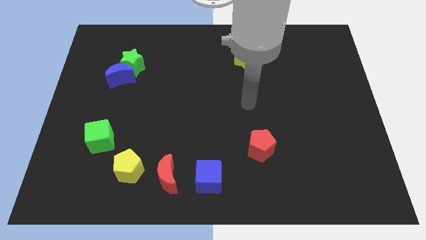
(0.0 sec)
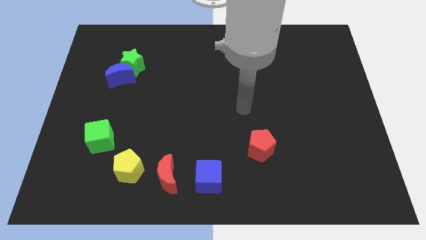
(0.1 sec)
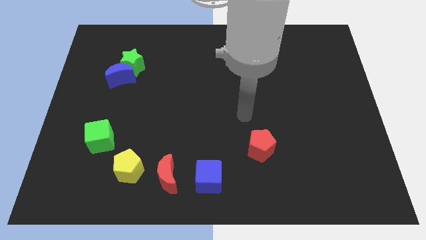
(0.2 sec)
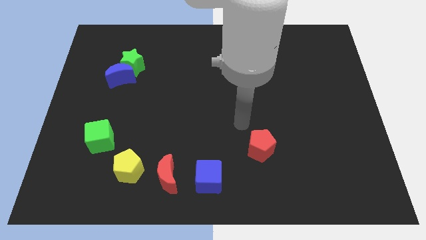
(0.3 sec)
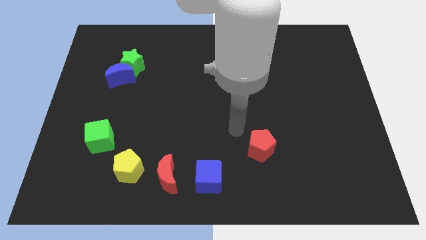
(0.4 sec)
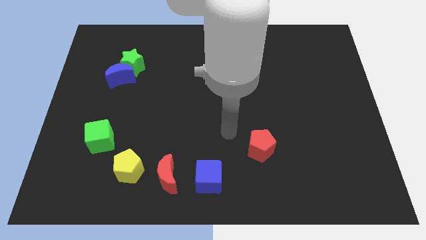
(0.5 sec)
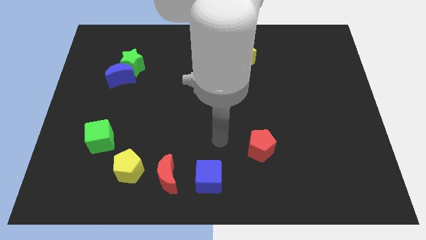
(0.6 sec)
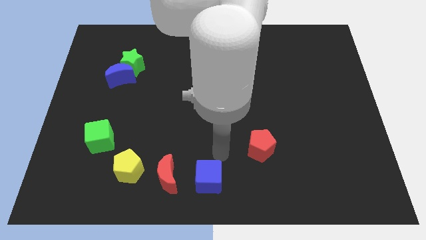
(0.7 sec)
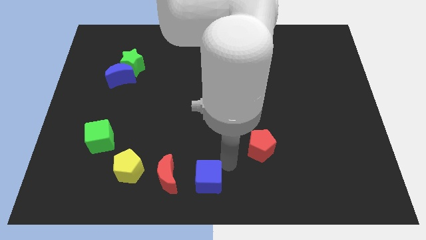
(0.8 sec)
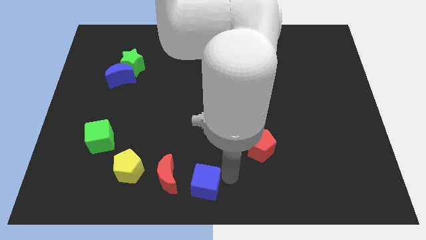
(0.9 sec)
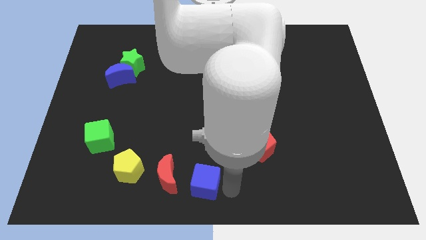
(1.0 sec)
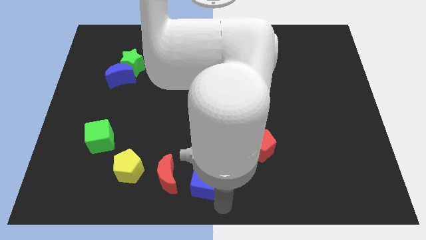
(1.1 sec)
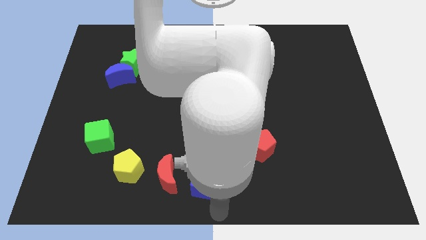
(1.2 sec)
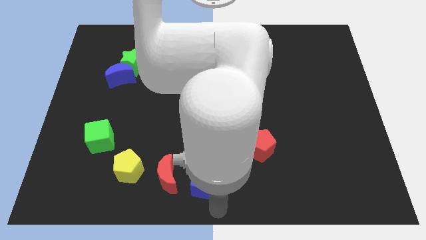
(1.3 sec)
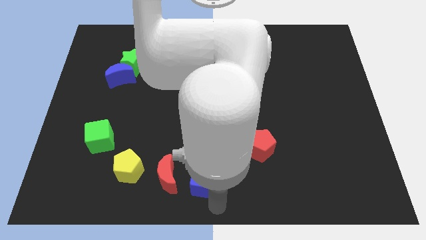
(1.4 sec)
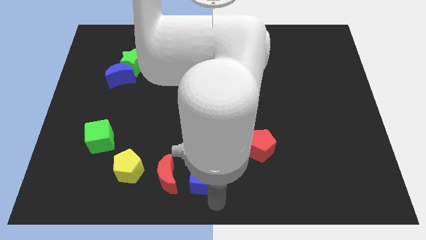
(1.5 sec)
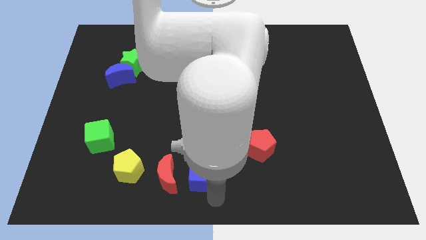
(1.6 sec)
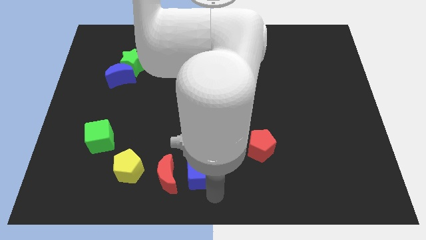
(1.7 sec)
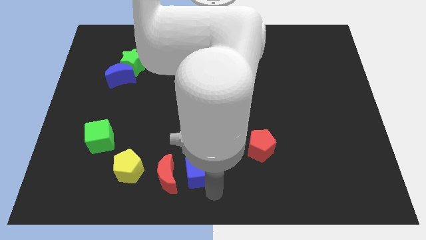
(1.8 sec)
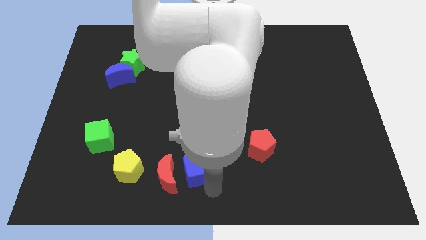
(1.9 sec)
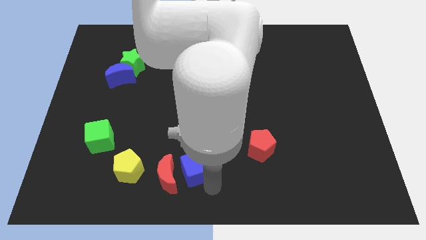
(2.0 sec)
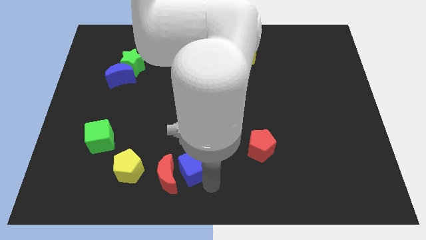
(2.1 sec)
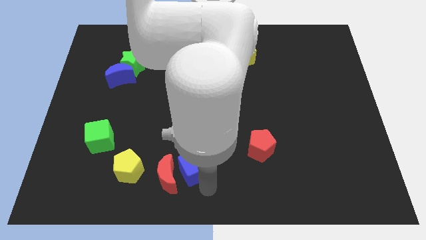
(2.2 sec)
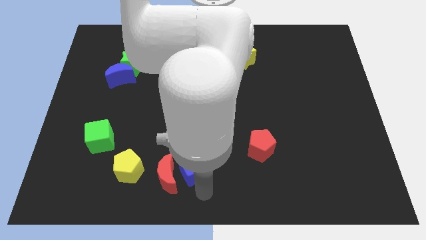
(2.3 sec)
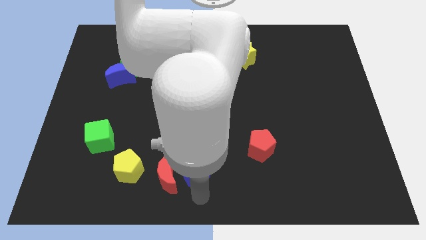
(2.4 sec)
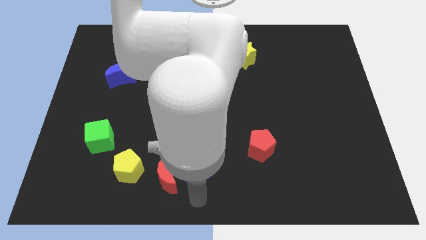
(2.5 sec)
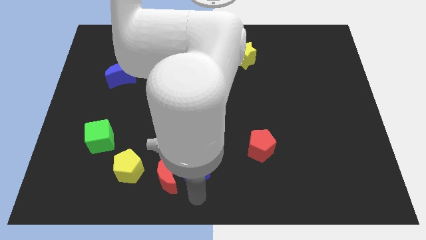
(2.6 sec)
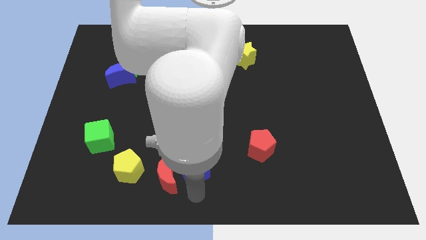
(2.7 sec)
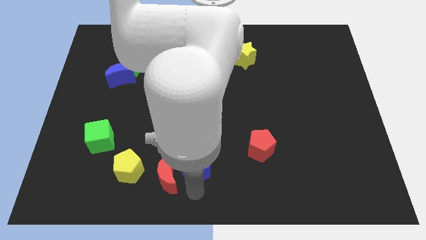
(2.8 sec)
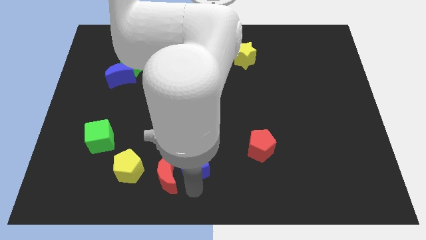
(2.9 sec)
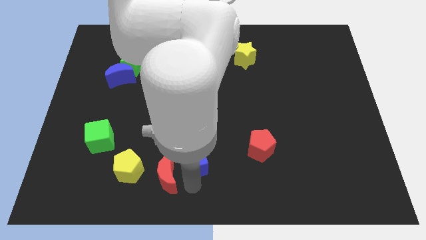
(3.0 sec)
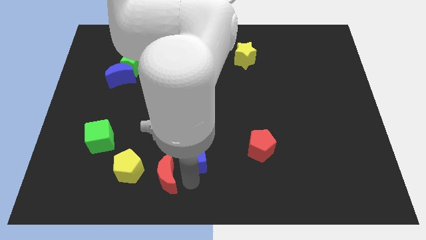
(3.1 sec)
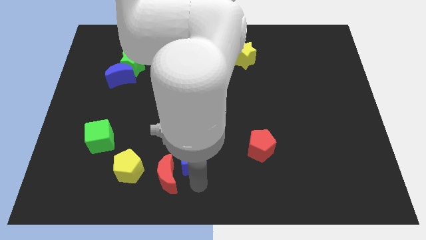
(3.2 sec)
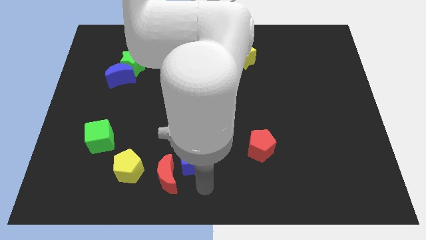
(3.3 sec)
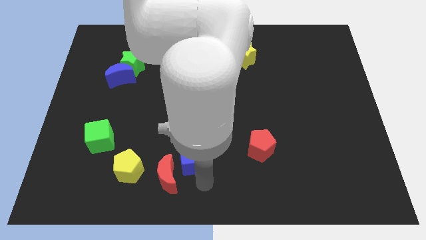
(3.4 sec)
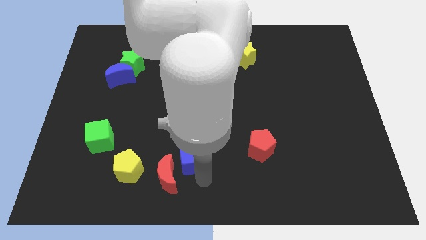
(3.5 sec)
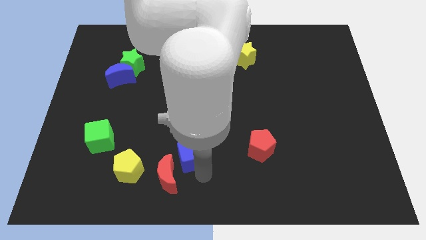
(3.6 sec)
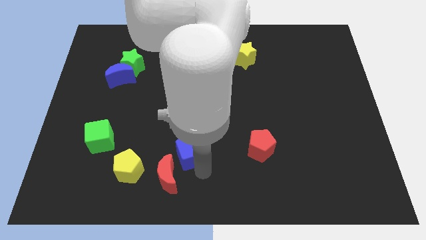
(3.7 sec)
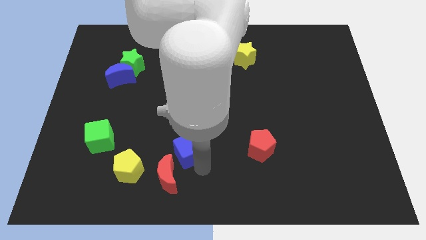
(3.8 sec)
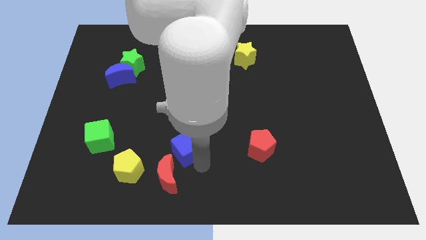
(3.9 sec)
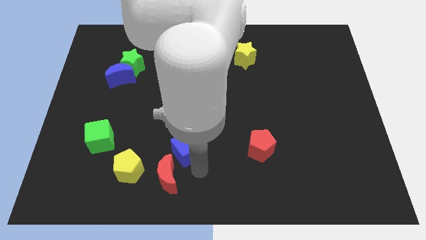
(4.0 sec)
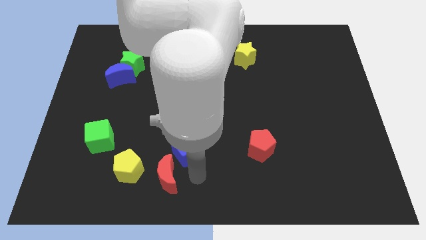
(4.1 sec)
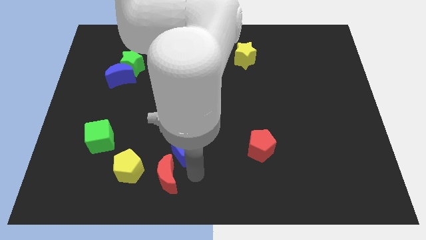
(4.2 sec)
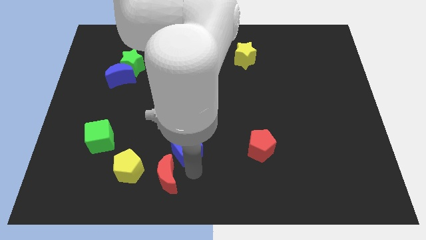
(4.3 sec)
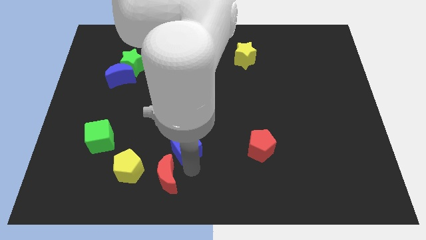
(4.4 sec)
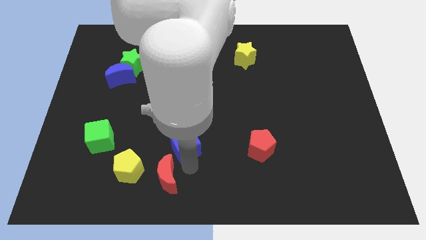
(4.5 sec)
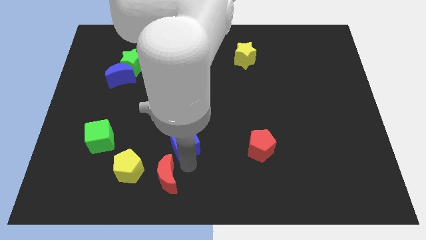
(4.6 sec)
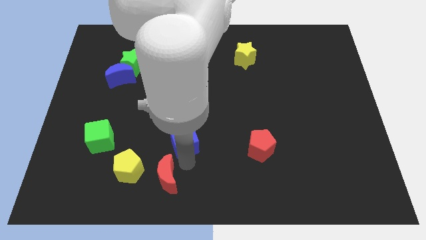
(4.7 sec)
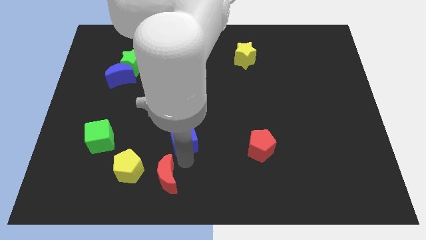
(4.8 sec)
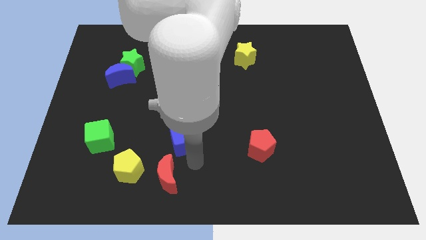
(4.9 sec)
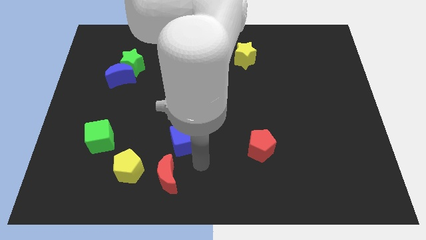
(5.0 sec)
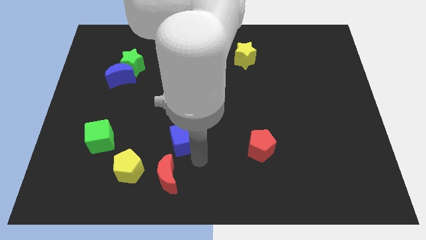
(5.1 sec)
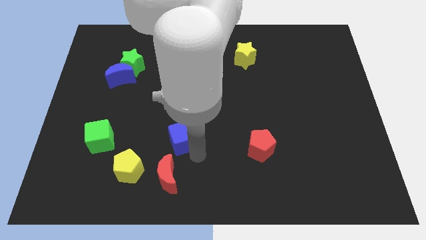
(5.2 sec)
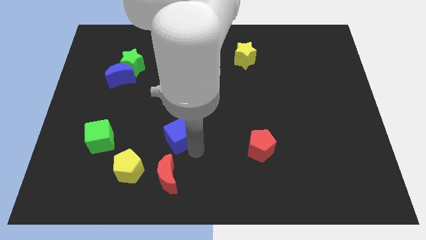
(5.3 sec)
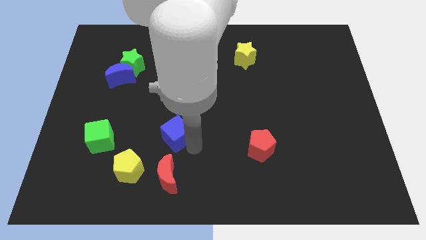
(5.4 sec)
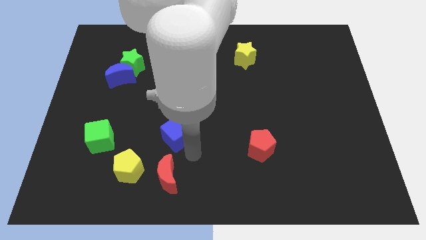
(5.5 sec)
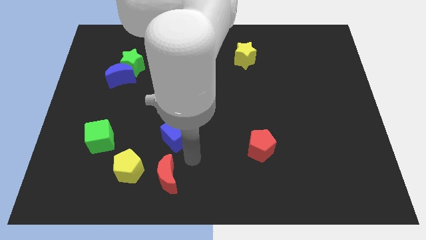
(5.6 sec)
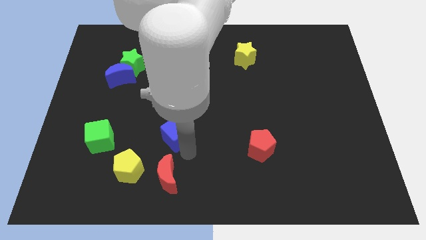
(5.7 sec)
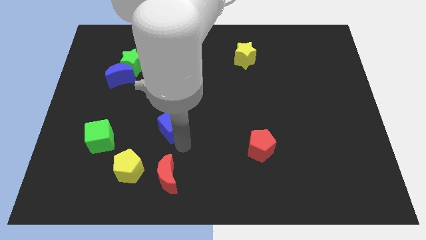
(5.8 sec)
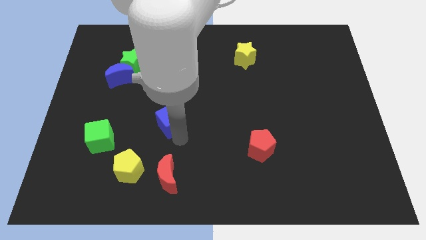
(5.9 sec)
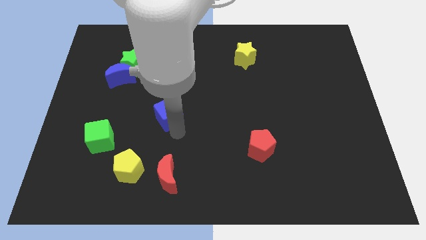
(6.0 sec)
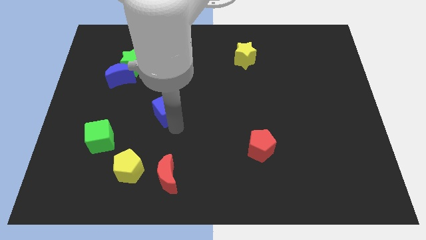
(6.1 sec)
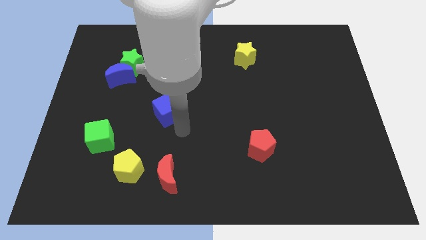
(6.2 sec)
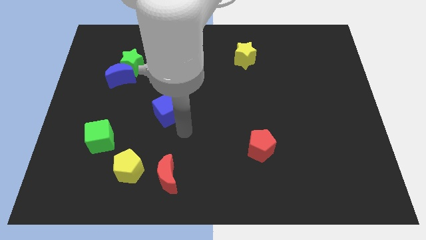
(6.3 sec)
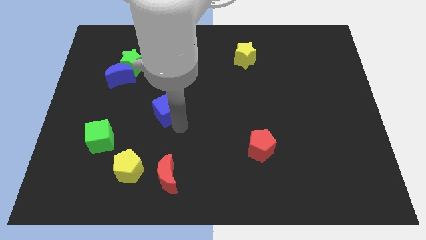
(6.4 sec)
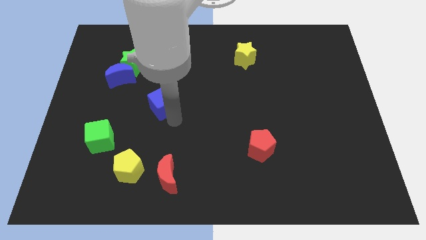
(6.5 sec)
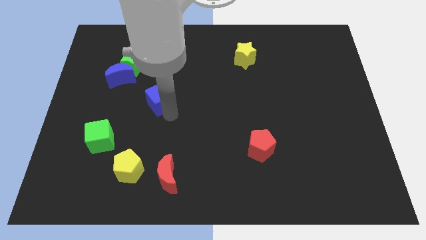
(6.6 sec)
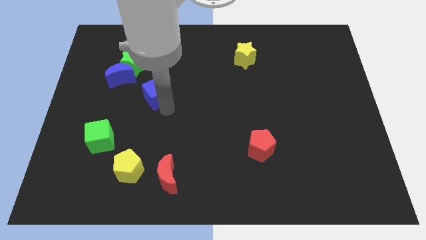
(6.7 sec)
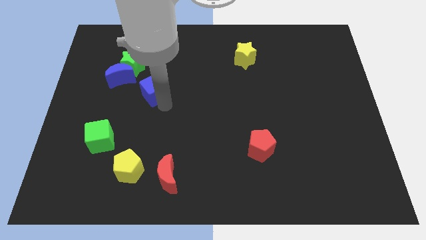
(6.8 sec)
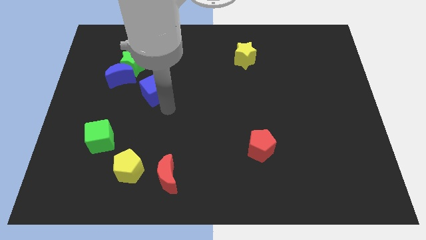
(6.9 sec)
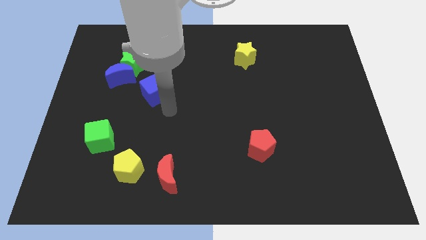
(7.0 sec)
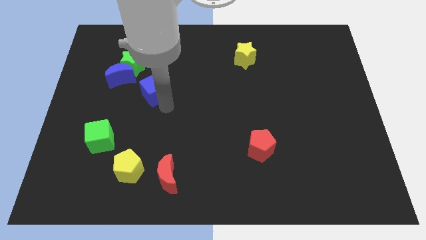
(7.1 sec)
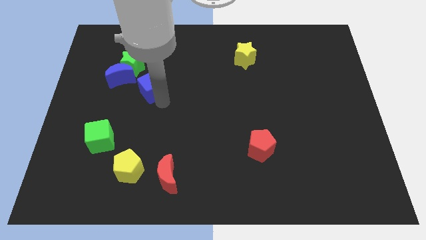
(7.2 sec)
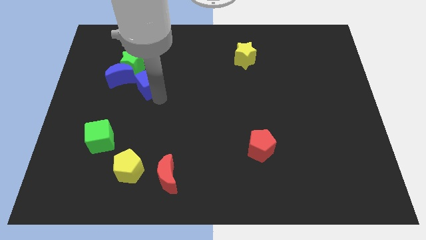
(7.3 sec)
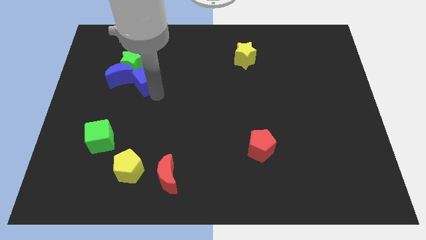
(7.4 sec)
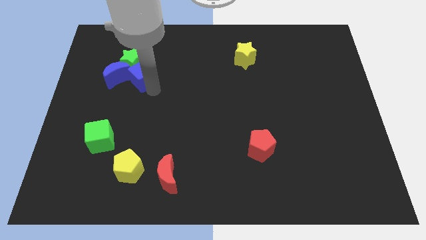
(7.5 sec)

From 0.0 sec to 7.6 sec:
slide the blue cube to the green star
